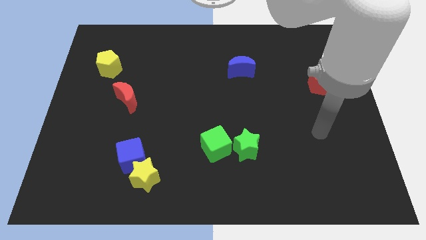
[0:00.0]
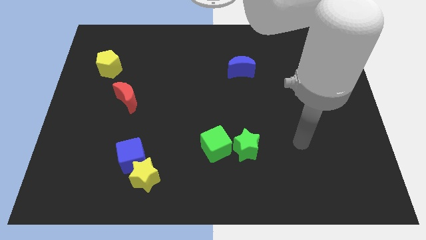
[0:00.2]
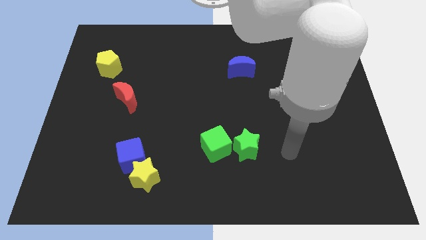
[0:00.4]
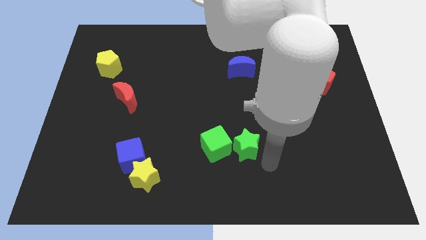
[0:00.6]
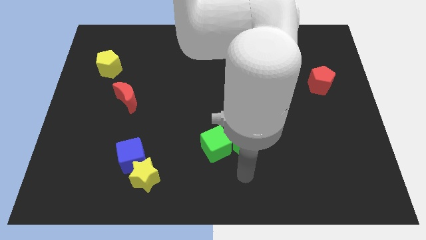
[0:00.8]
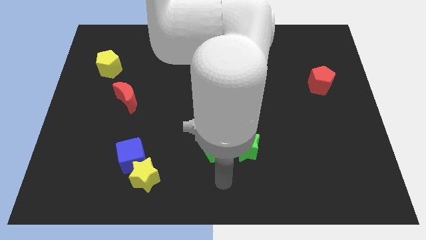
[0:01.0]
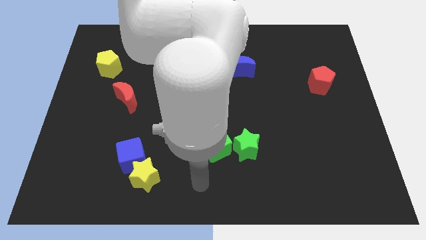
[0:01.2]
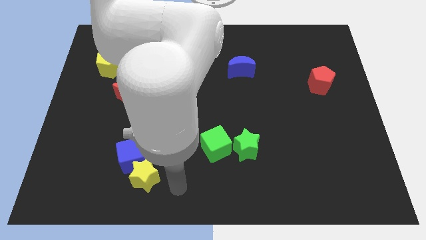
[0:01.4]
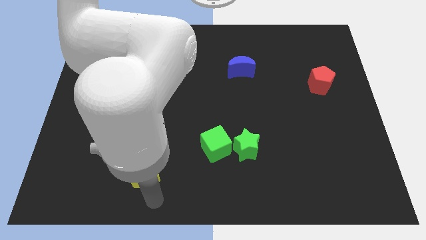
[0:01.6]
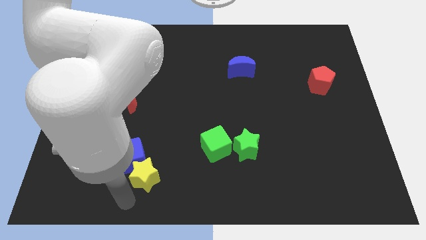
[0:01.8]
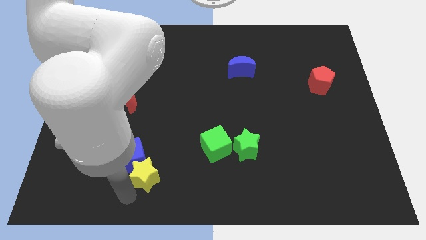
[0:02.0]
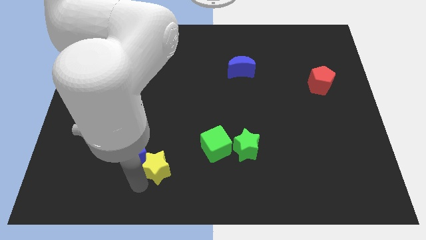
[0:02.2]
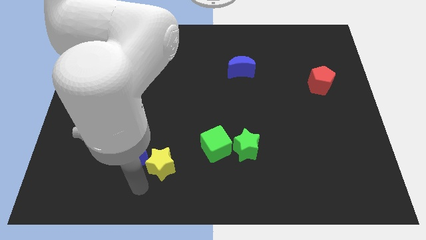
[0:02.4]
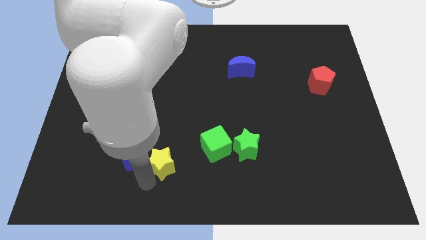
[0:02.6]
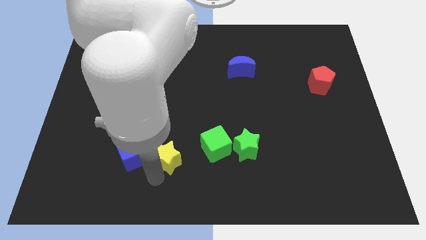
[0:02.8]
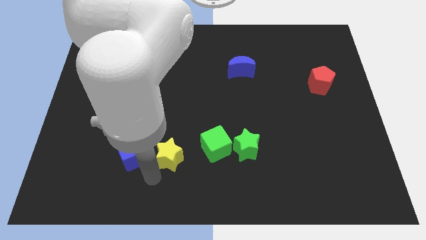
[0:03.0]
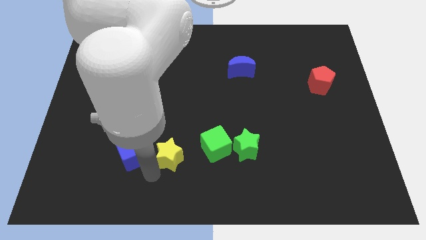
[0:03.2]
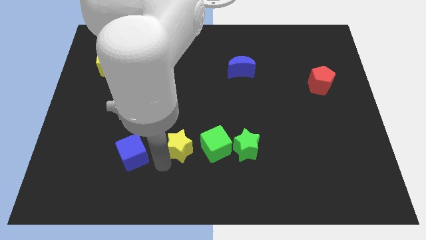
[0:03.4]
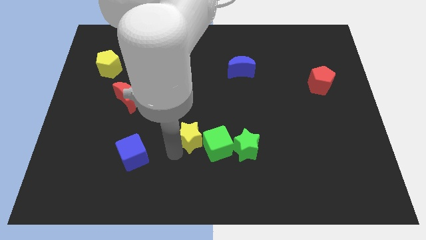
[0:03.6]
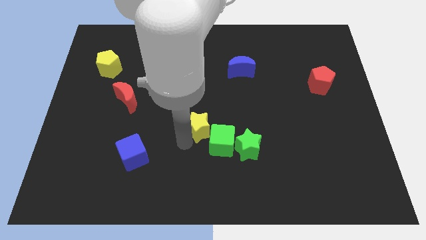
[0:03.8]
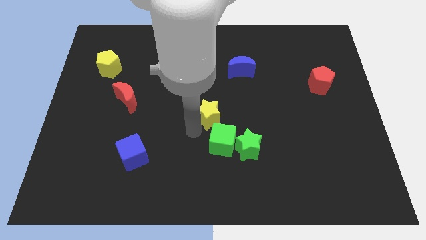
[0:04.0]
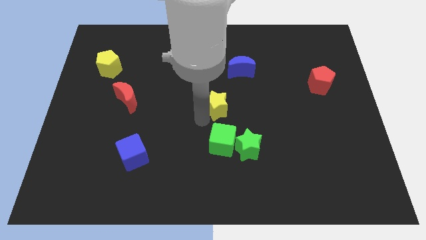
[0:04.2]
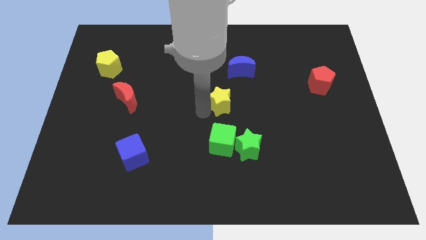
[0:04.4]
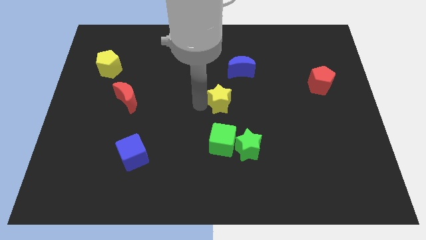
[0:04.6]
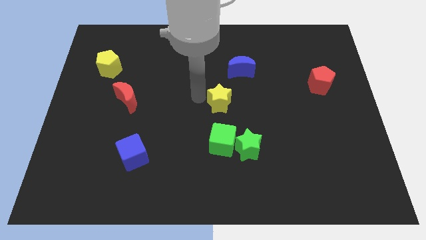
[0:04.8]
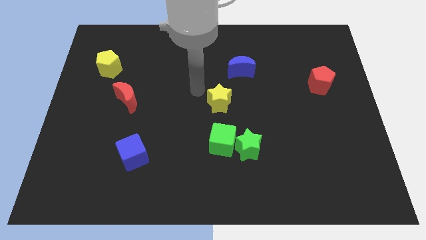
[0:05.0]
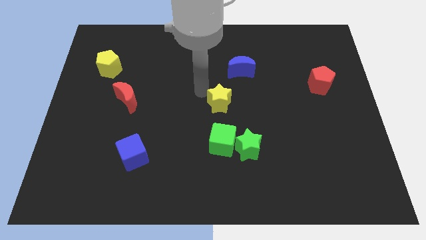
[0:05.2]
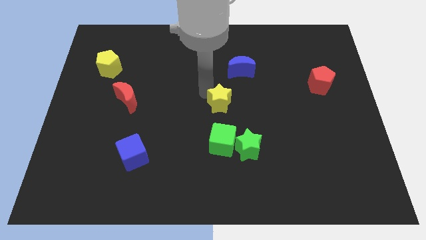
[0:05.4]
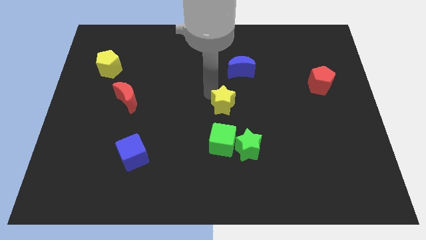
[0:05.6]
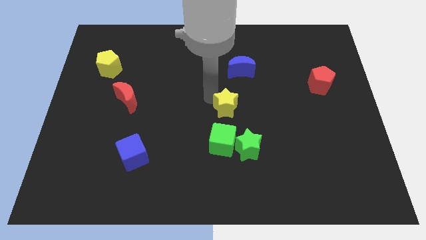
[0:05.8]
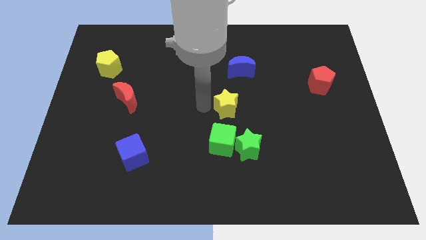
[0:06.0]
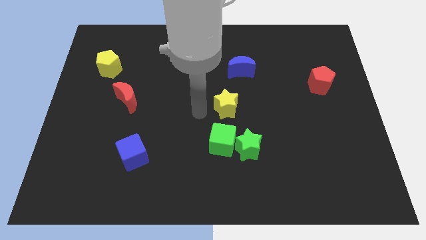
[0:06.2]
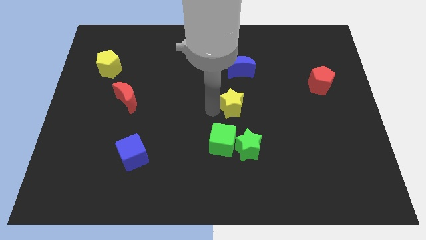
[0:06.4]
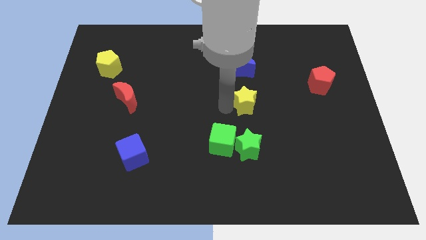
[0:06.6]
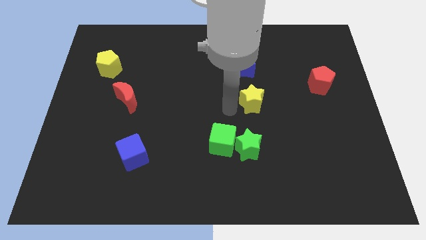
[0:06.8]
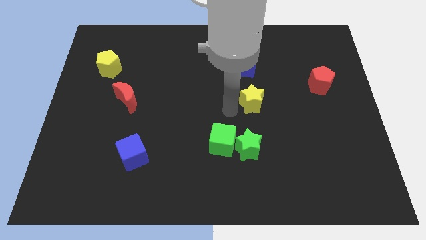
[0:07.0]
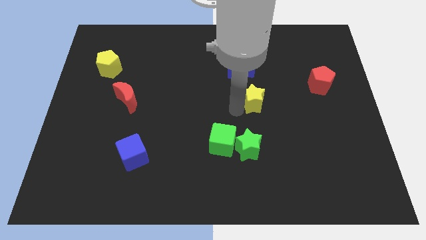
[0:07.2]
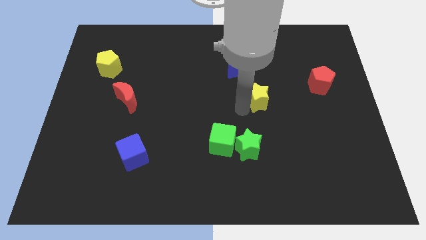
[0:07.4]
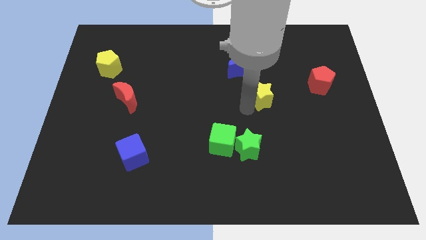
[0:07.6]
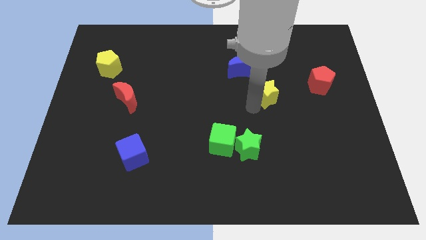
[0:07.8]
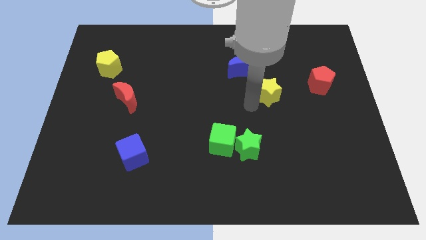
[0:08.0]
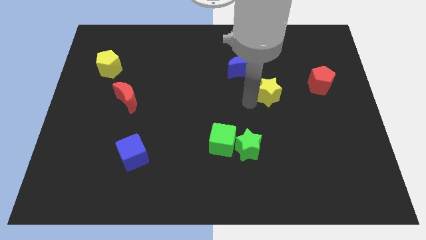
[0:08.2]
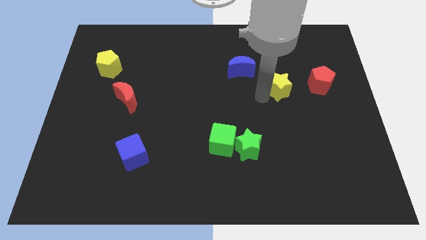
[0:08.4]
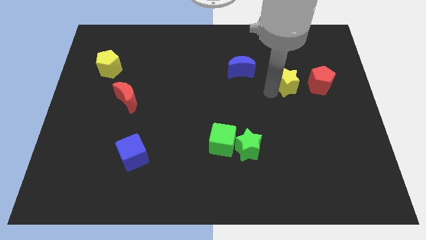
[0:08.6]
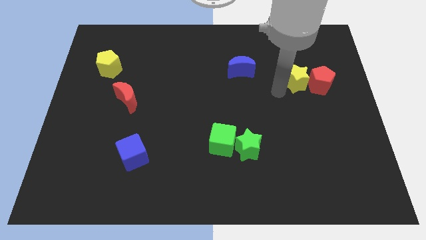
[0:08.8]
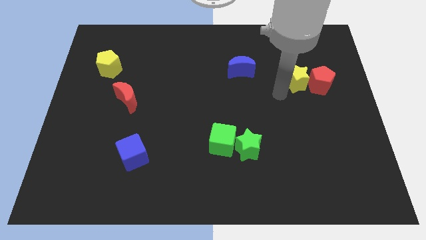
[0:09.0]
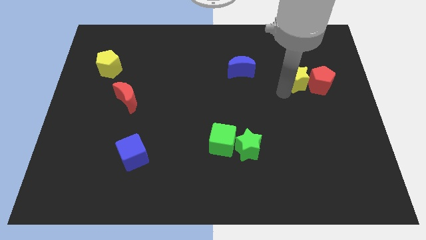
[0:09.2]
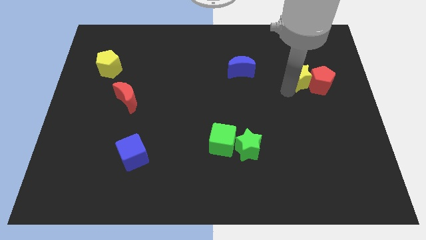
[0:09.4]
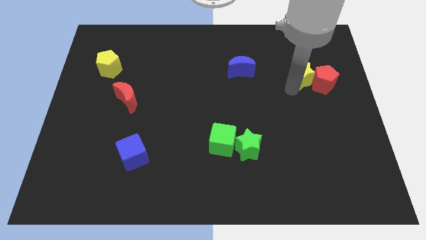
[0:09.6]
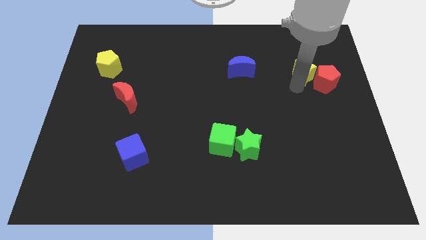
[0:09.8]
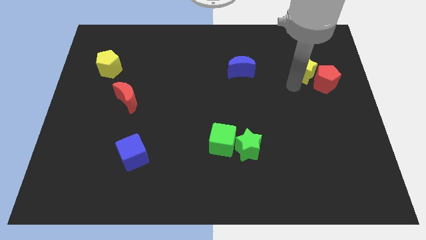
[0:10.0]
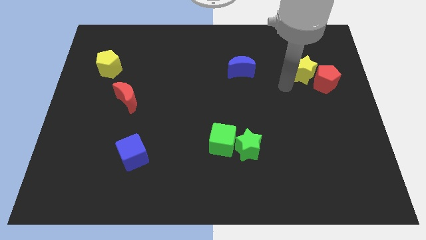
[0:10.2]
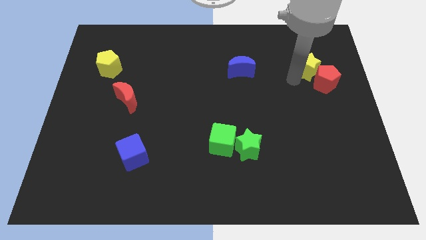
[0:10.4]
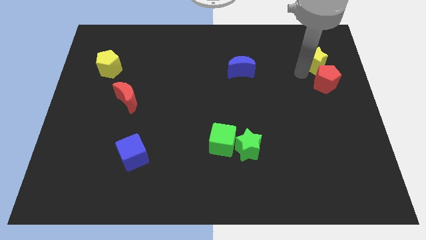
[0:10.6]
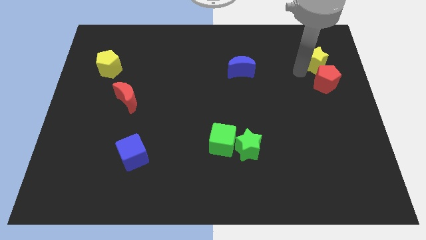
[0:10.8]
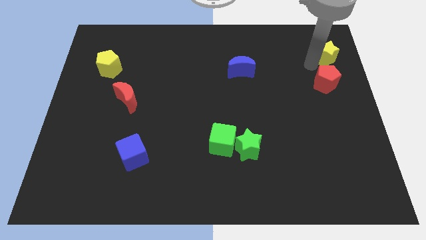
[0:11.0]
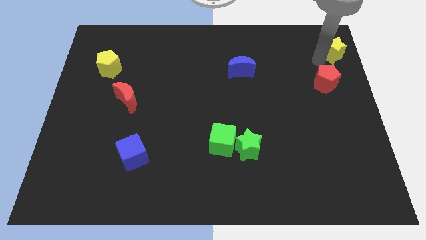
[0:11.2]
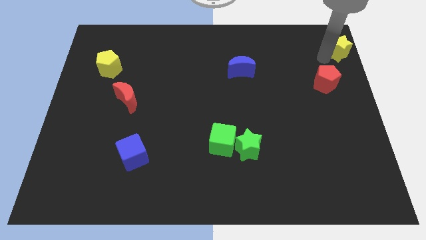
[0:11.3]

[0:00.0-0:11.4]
move the yellow star to the top right
